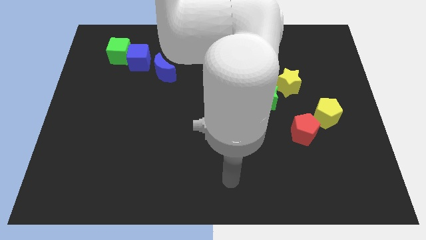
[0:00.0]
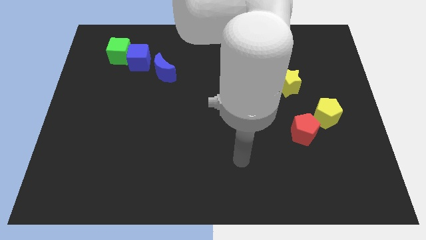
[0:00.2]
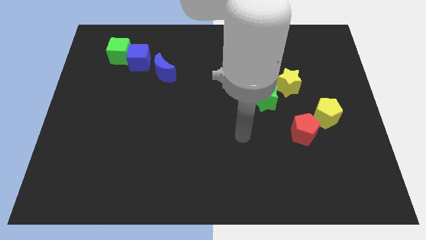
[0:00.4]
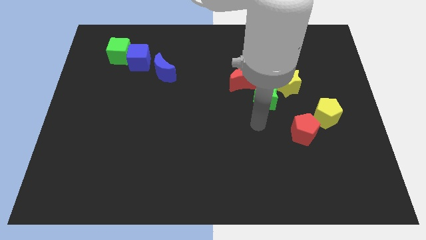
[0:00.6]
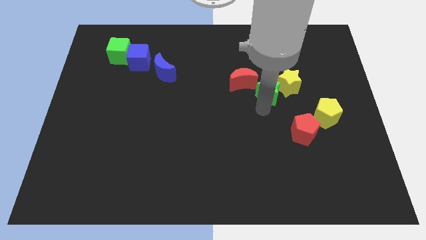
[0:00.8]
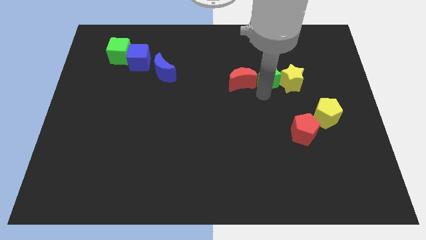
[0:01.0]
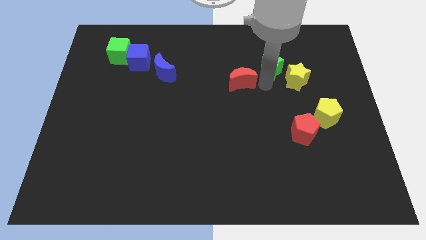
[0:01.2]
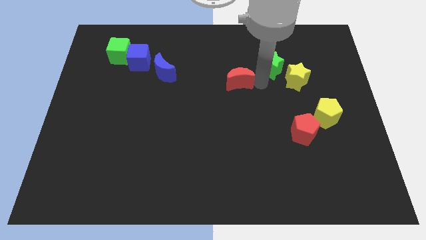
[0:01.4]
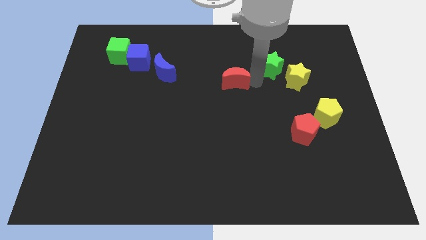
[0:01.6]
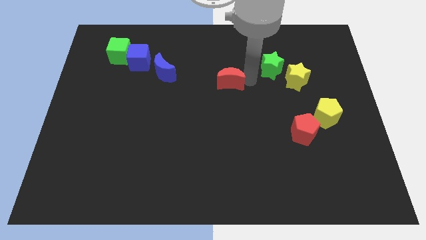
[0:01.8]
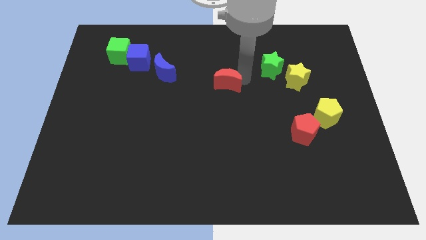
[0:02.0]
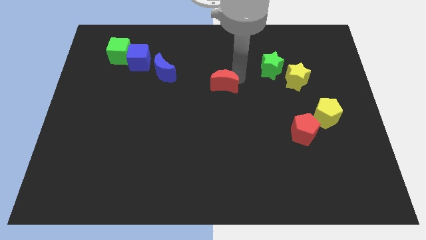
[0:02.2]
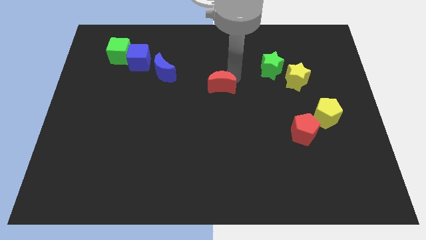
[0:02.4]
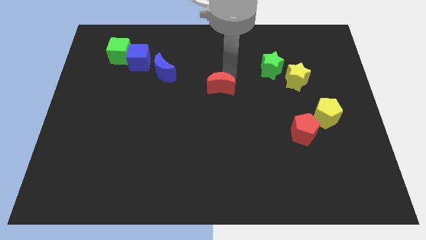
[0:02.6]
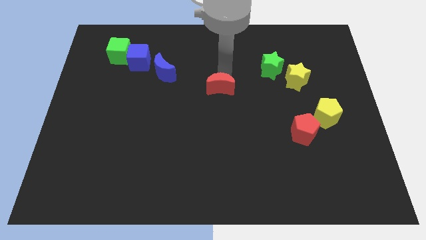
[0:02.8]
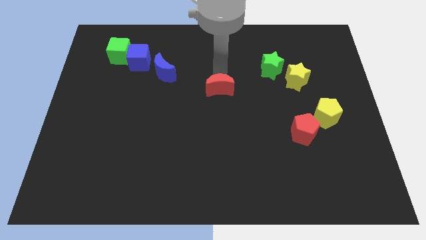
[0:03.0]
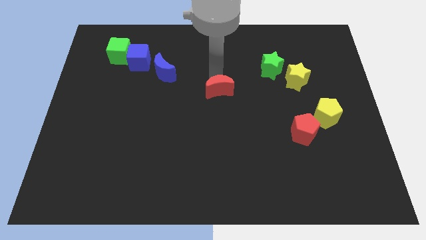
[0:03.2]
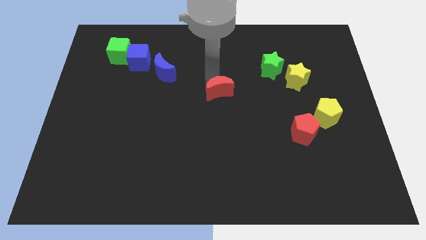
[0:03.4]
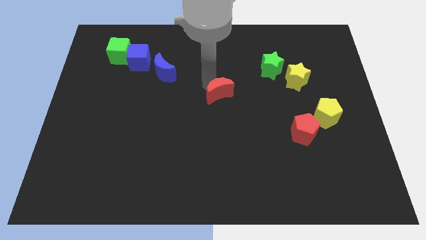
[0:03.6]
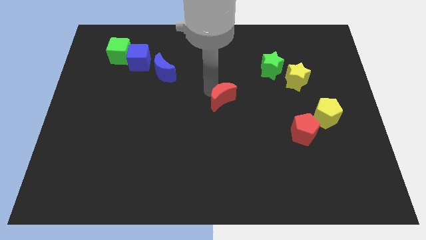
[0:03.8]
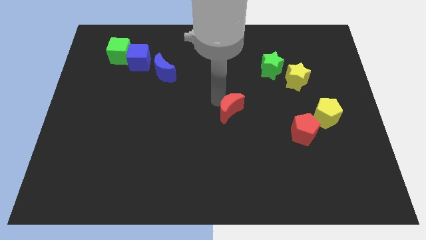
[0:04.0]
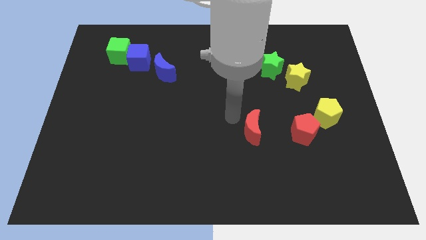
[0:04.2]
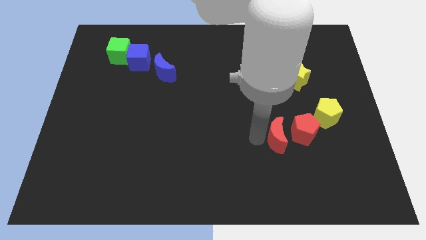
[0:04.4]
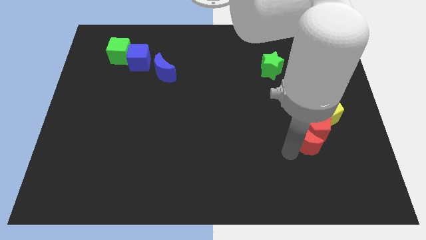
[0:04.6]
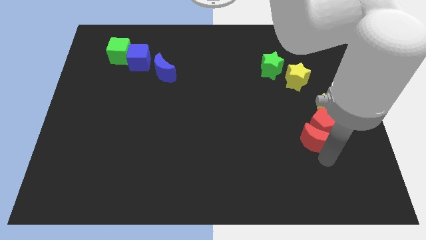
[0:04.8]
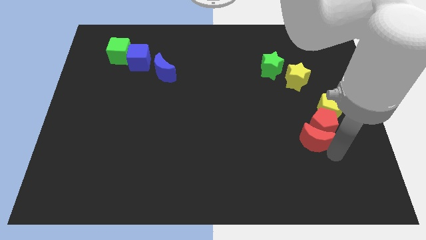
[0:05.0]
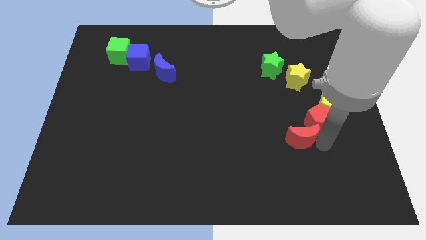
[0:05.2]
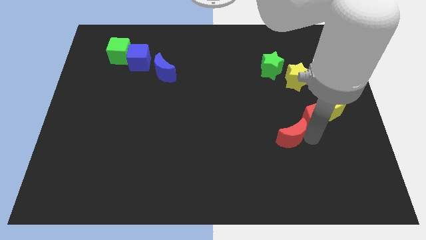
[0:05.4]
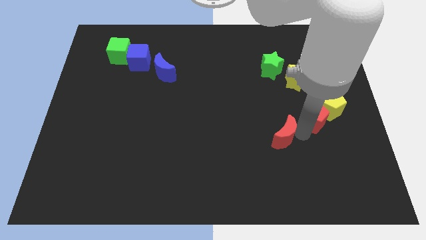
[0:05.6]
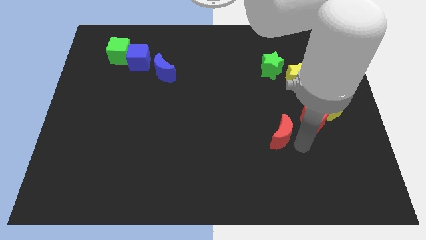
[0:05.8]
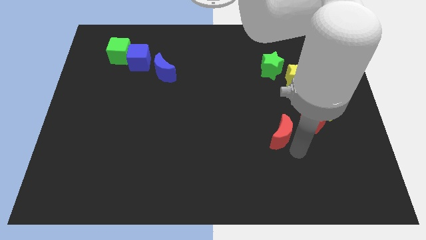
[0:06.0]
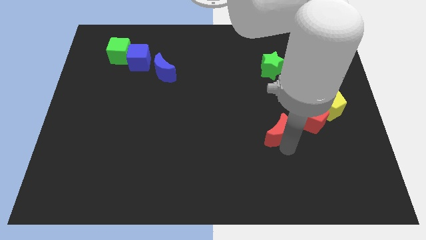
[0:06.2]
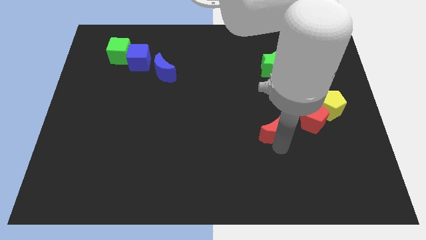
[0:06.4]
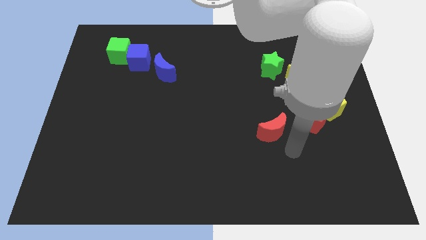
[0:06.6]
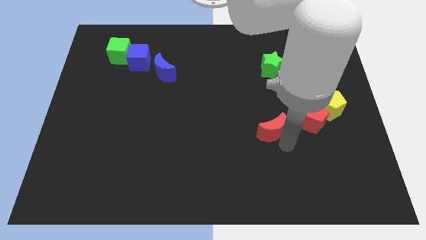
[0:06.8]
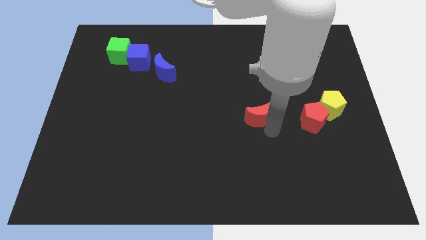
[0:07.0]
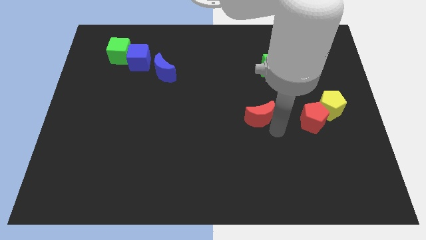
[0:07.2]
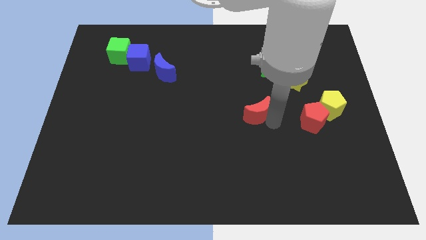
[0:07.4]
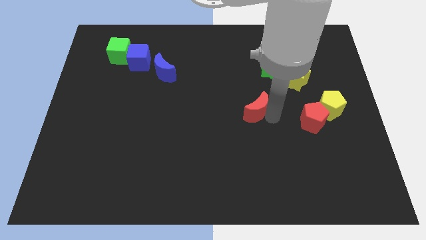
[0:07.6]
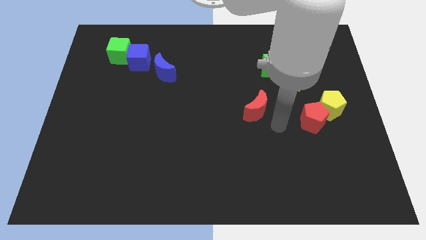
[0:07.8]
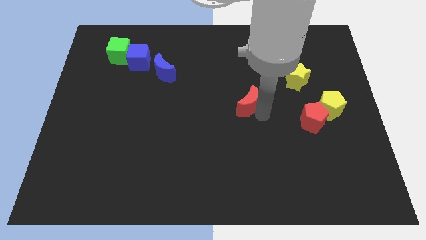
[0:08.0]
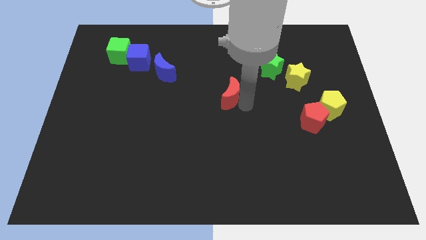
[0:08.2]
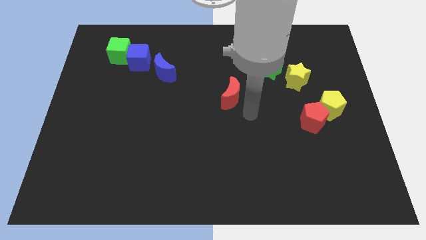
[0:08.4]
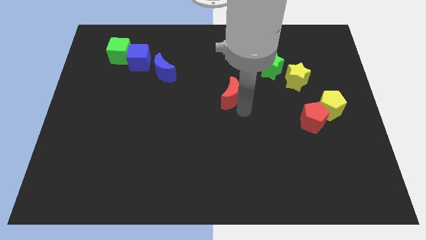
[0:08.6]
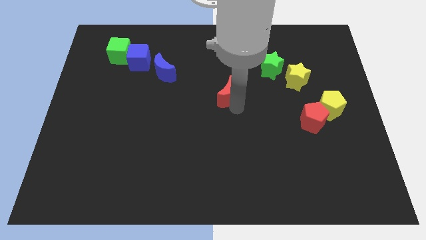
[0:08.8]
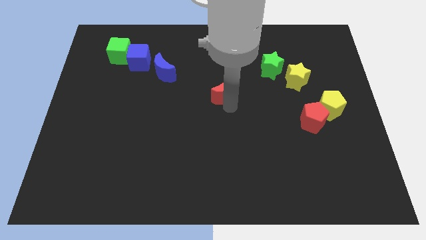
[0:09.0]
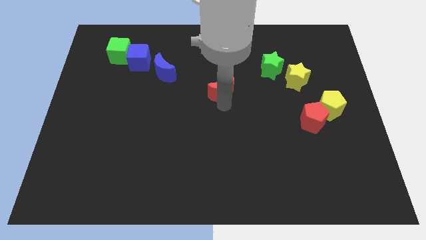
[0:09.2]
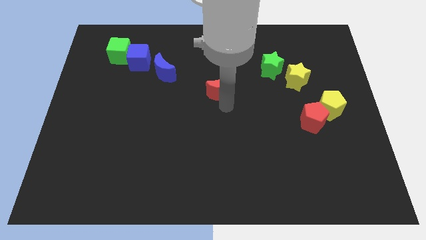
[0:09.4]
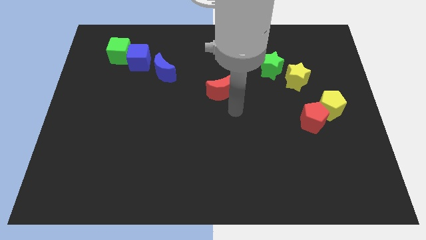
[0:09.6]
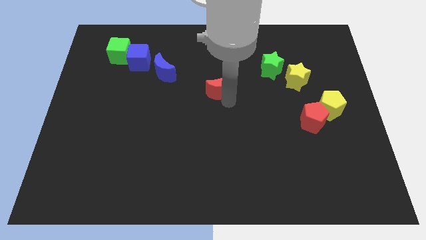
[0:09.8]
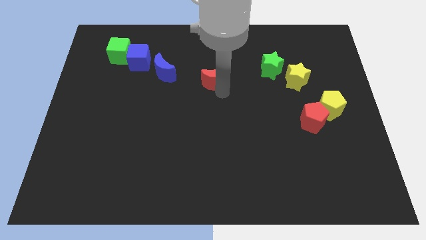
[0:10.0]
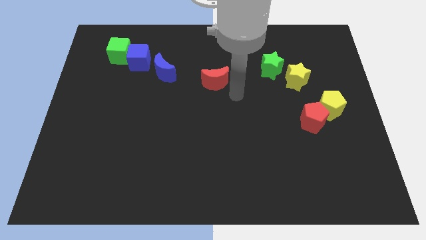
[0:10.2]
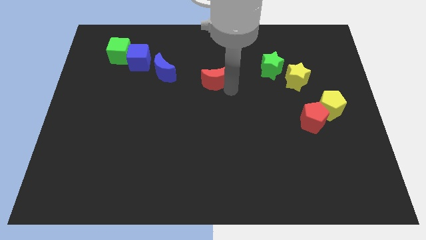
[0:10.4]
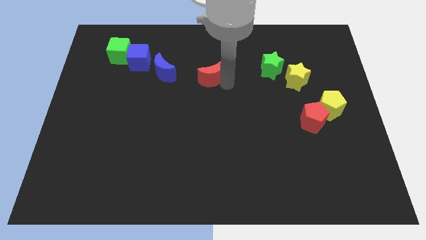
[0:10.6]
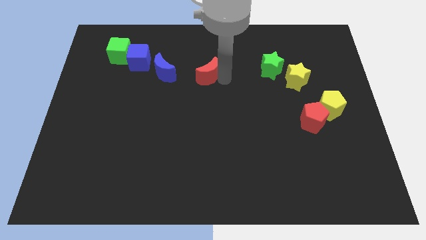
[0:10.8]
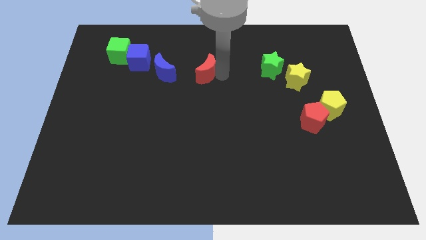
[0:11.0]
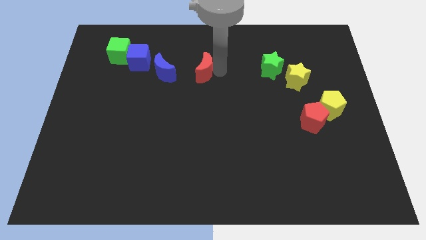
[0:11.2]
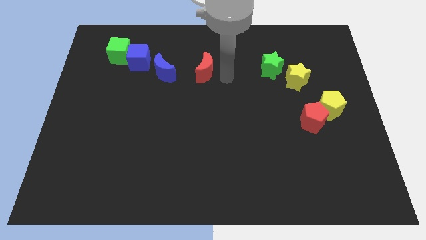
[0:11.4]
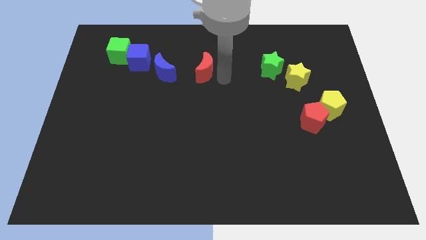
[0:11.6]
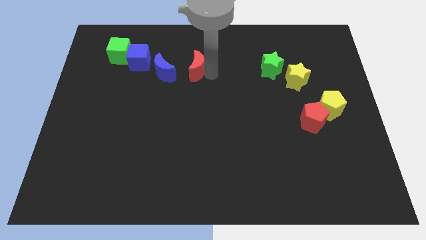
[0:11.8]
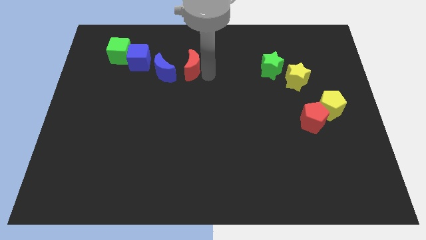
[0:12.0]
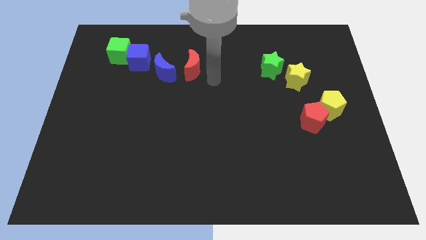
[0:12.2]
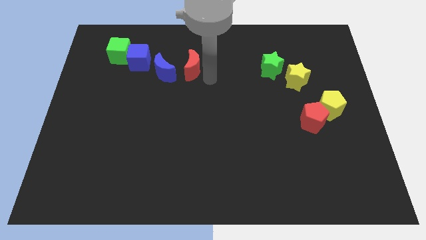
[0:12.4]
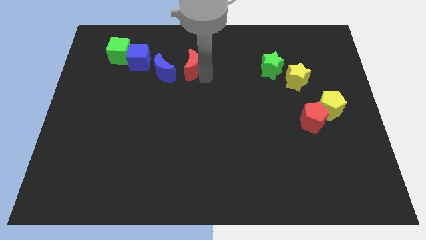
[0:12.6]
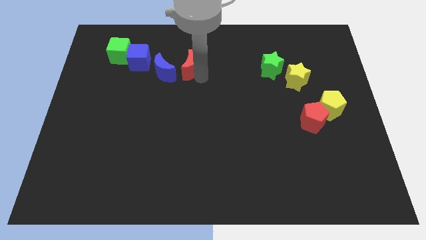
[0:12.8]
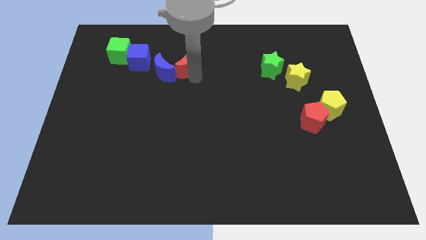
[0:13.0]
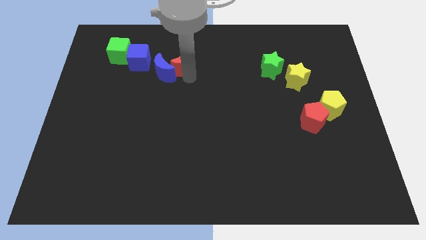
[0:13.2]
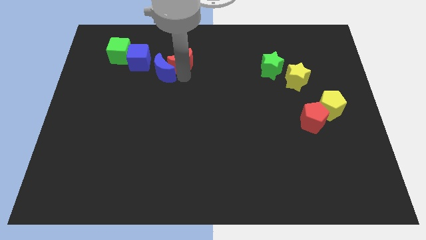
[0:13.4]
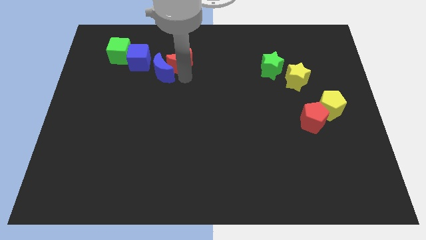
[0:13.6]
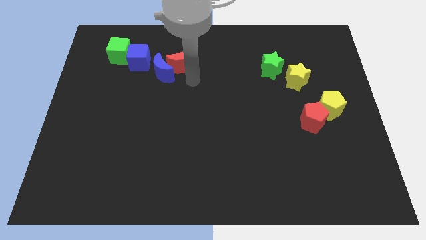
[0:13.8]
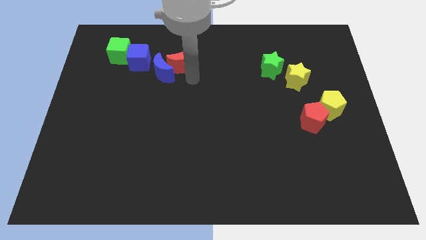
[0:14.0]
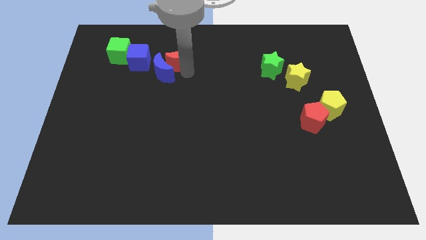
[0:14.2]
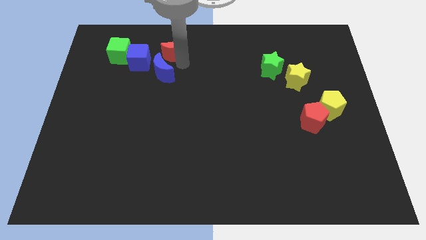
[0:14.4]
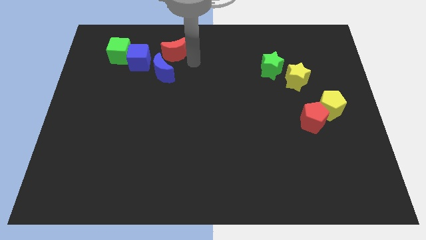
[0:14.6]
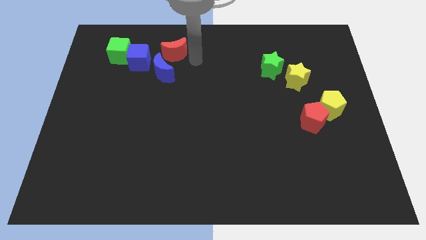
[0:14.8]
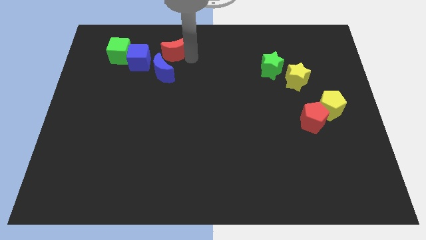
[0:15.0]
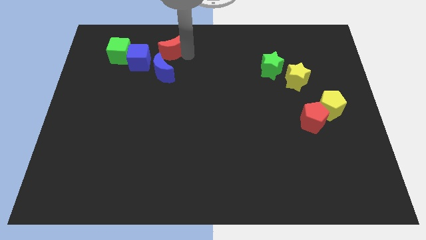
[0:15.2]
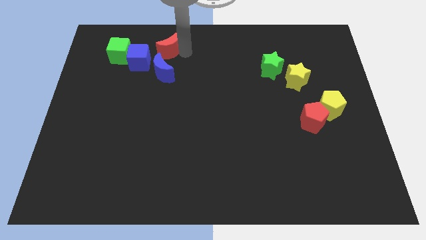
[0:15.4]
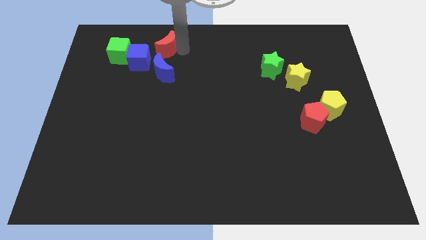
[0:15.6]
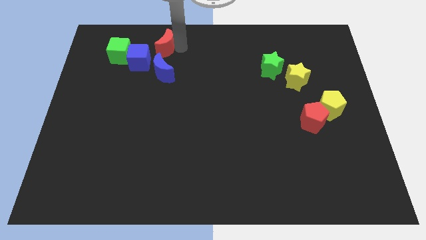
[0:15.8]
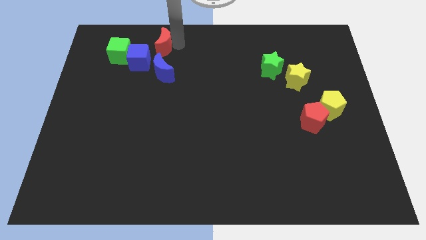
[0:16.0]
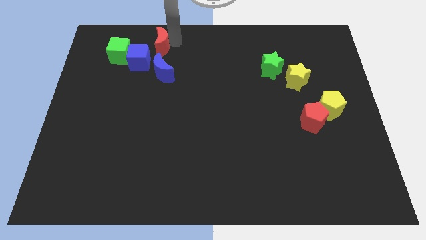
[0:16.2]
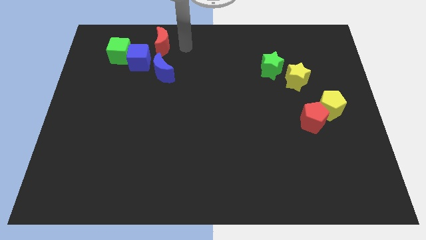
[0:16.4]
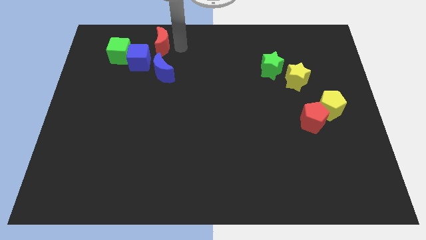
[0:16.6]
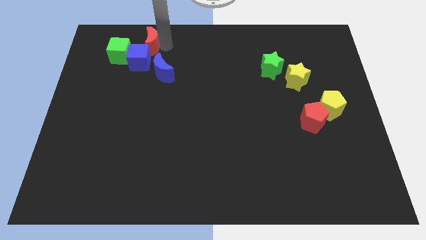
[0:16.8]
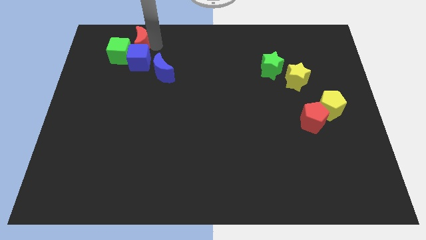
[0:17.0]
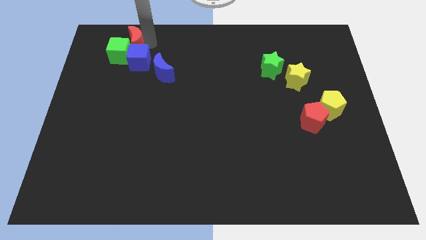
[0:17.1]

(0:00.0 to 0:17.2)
push the red moon close to the green cube
